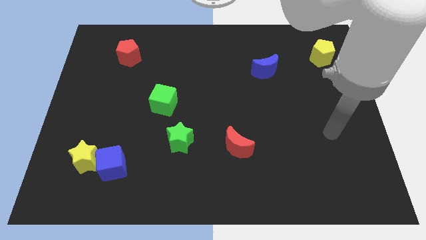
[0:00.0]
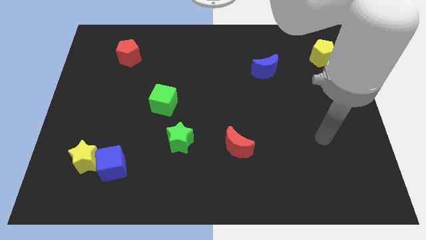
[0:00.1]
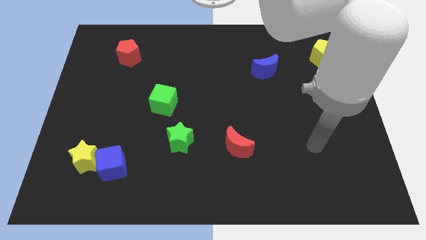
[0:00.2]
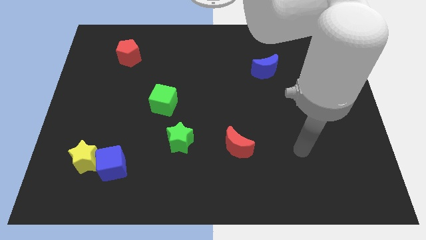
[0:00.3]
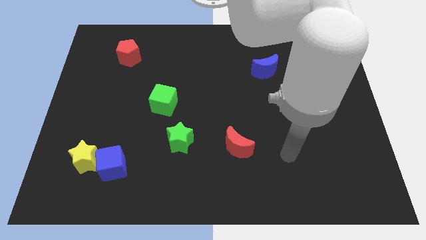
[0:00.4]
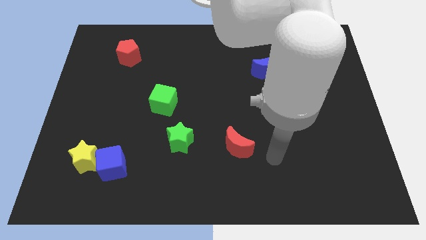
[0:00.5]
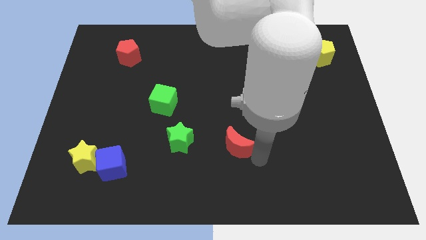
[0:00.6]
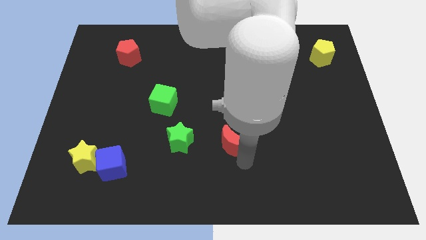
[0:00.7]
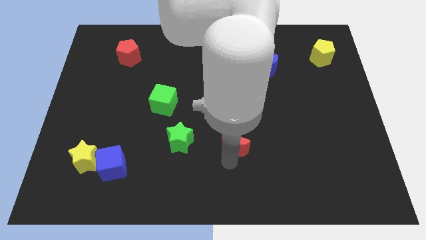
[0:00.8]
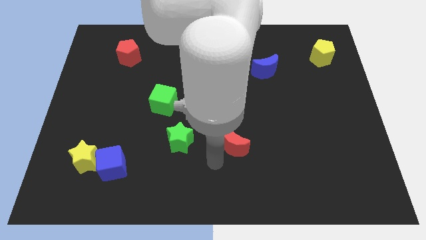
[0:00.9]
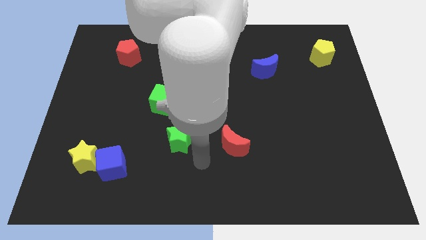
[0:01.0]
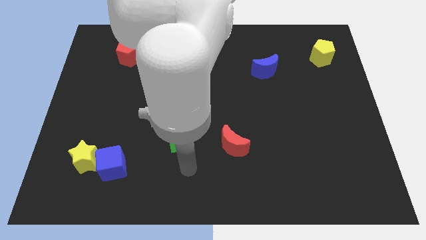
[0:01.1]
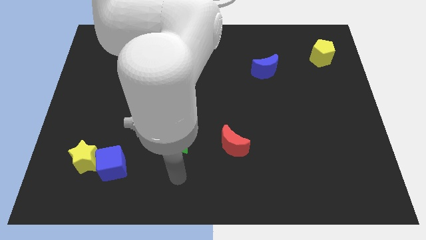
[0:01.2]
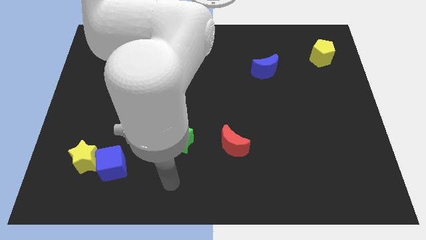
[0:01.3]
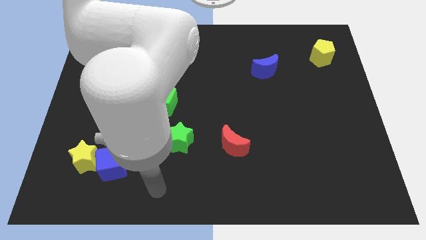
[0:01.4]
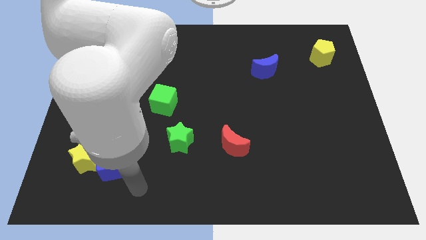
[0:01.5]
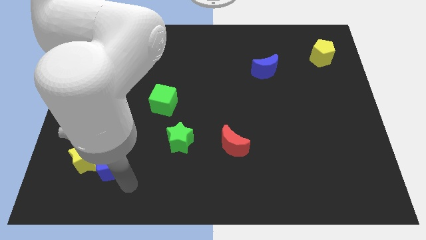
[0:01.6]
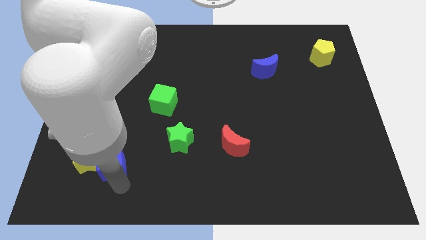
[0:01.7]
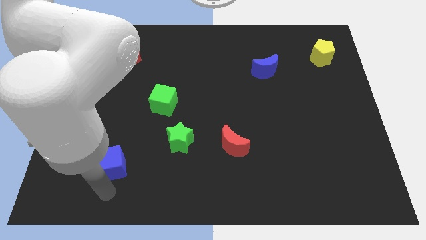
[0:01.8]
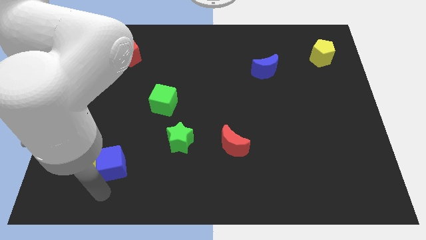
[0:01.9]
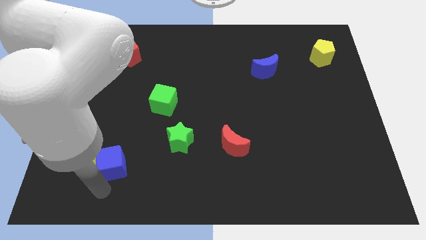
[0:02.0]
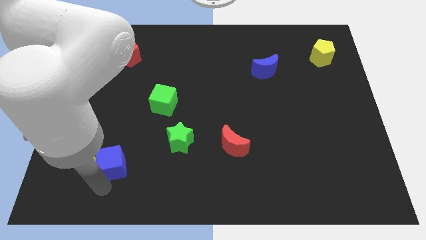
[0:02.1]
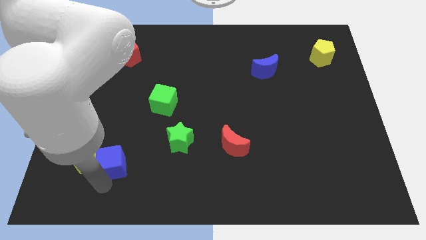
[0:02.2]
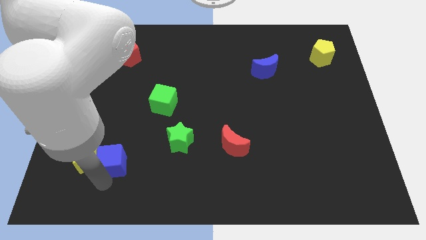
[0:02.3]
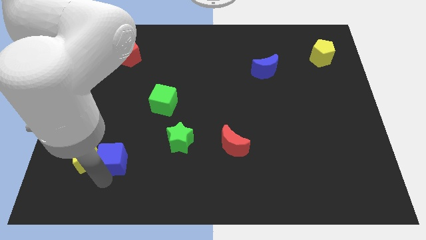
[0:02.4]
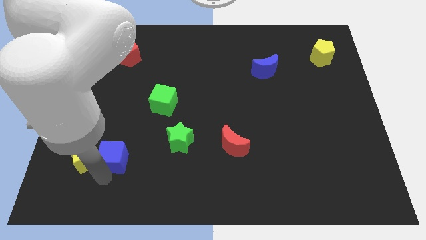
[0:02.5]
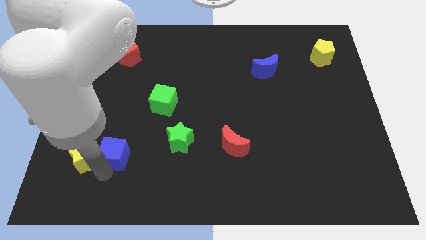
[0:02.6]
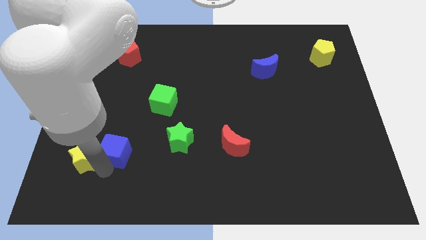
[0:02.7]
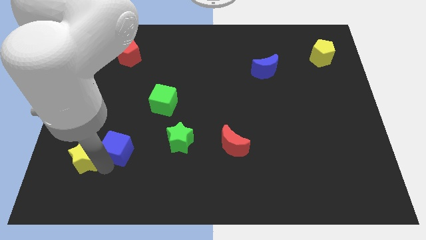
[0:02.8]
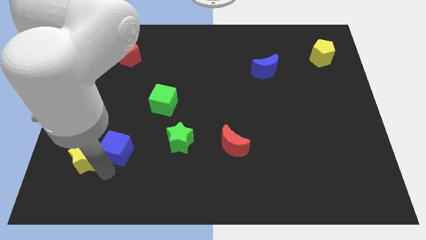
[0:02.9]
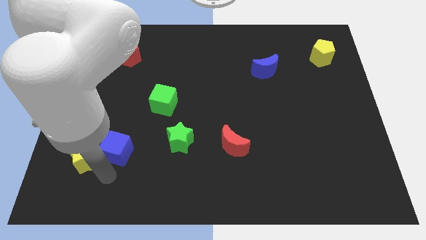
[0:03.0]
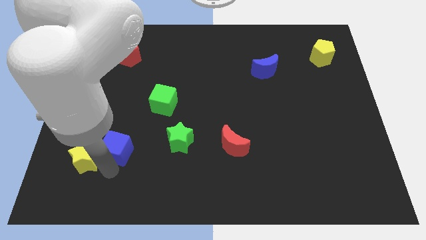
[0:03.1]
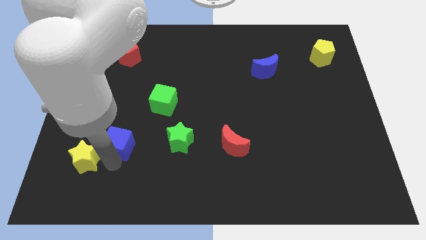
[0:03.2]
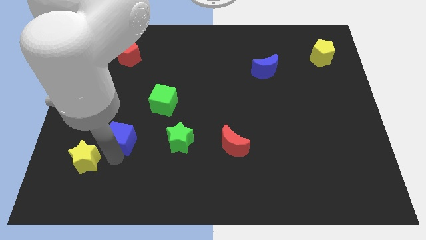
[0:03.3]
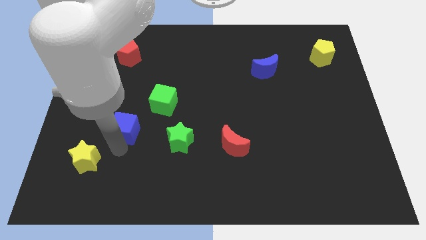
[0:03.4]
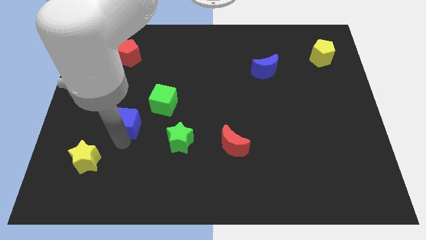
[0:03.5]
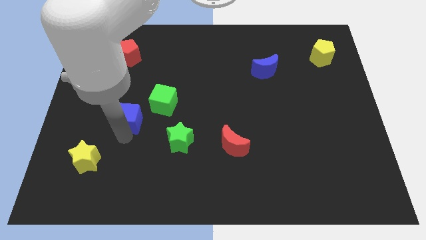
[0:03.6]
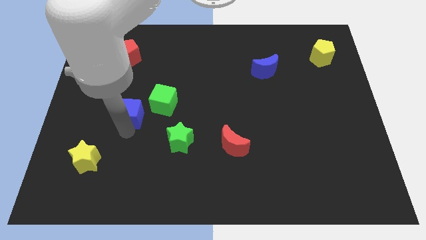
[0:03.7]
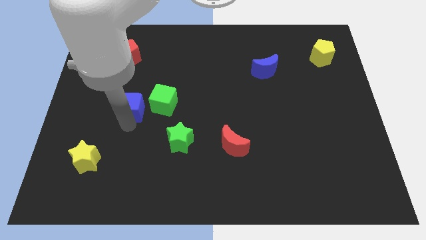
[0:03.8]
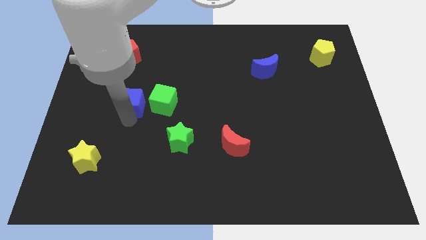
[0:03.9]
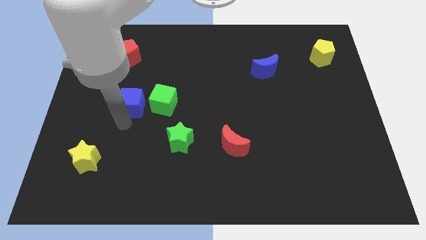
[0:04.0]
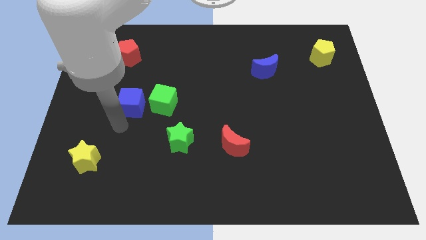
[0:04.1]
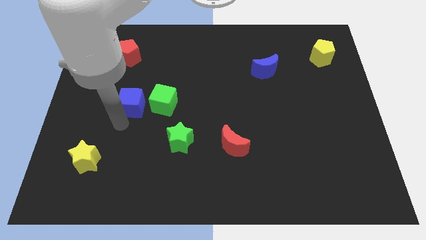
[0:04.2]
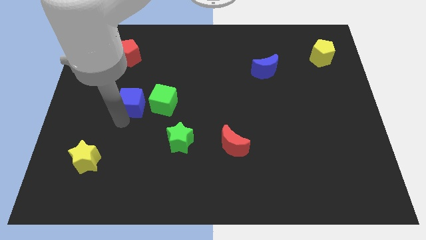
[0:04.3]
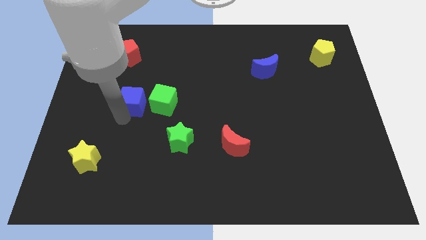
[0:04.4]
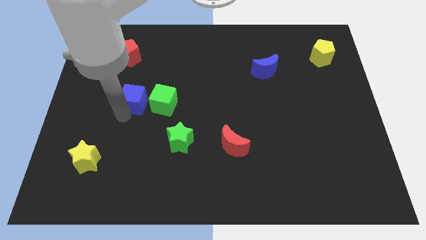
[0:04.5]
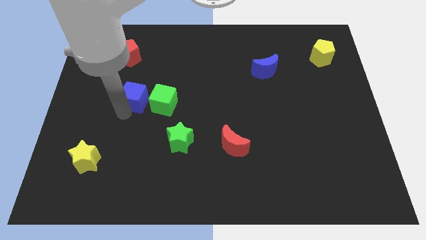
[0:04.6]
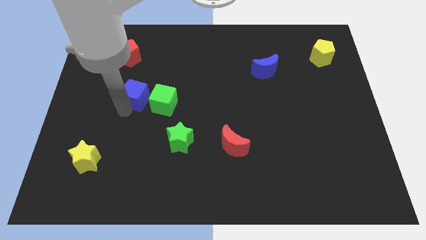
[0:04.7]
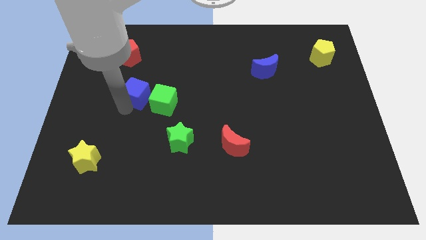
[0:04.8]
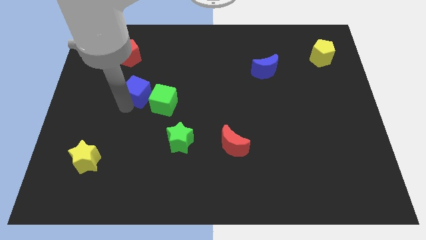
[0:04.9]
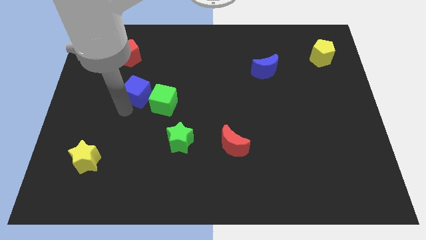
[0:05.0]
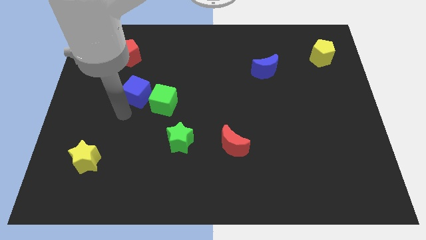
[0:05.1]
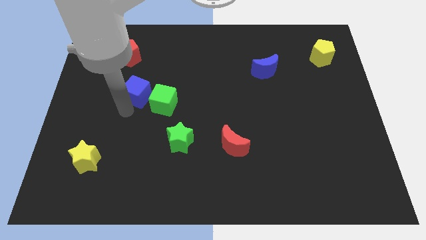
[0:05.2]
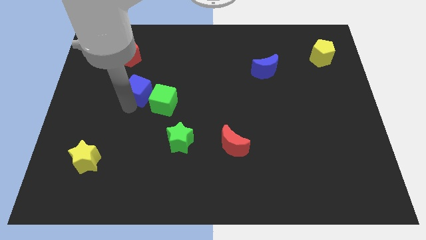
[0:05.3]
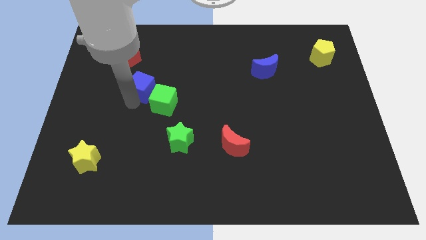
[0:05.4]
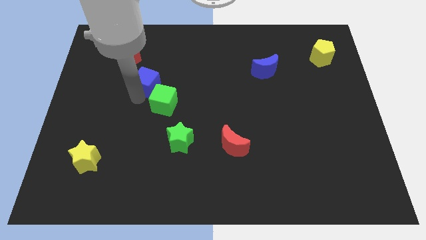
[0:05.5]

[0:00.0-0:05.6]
move the blue cube to the bottom right of the red pentagon

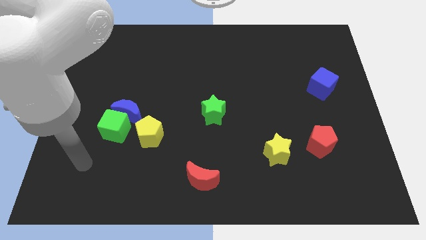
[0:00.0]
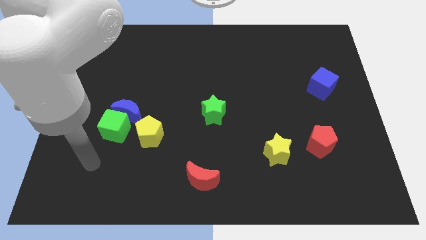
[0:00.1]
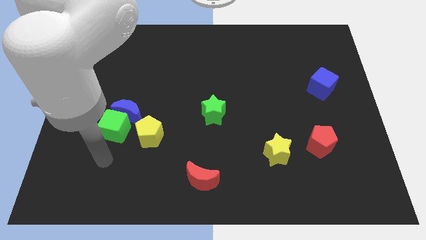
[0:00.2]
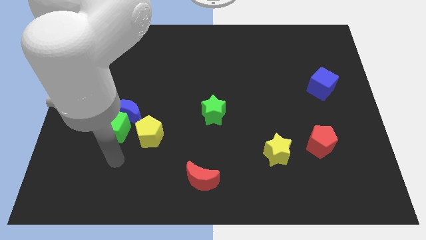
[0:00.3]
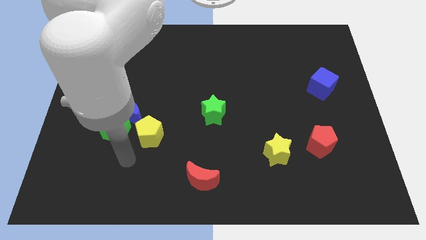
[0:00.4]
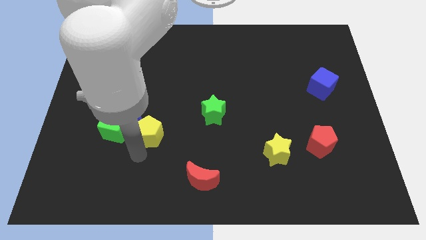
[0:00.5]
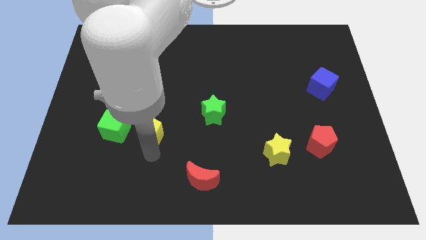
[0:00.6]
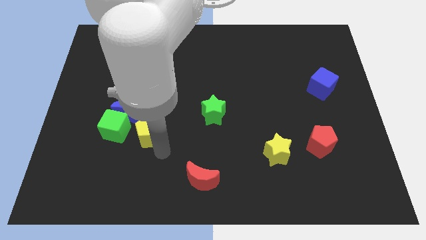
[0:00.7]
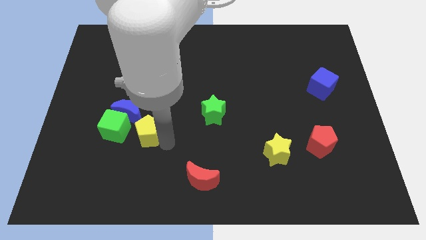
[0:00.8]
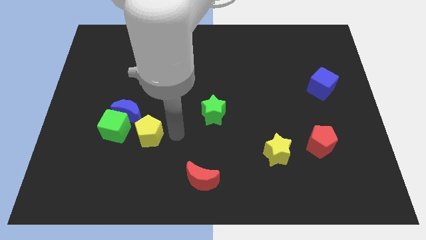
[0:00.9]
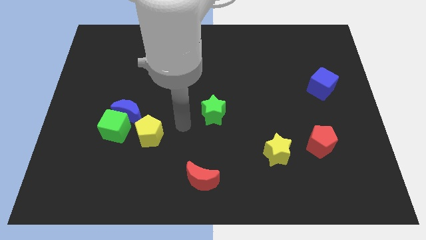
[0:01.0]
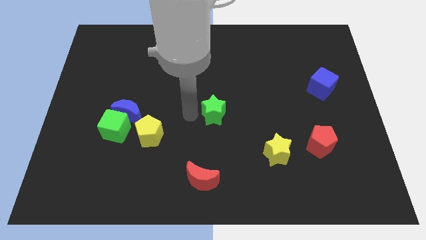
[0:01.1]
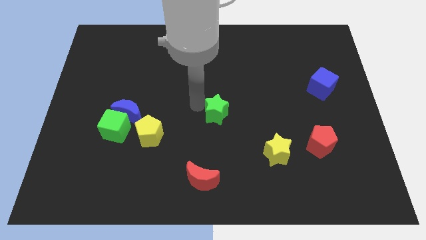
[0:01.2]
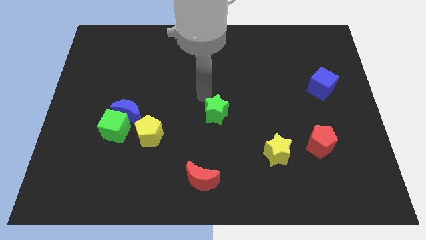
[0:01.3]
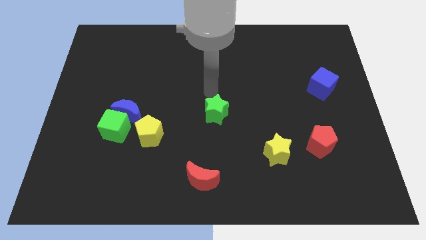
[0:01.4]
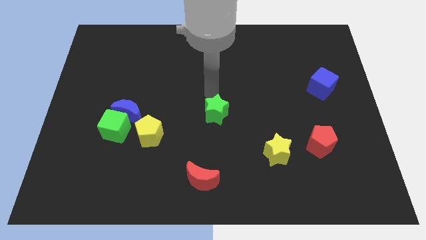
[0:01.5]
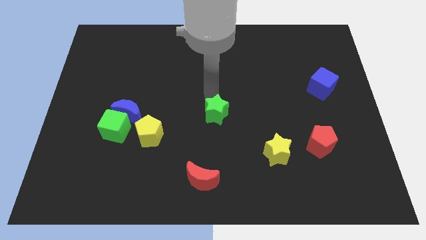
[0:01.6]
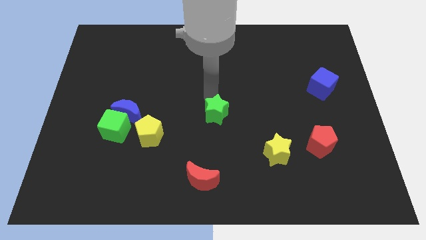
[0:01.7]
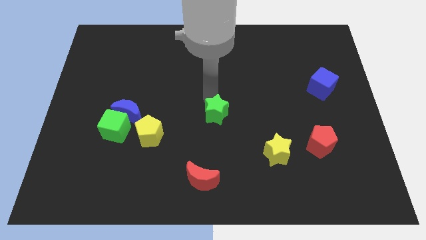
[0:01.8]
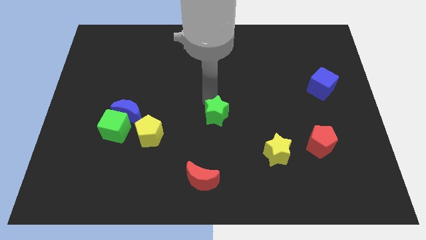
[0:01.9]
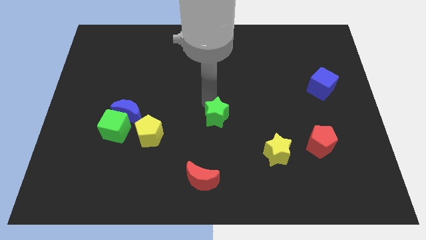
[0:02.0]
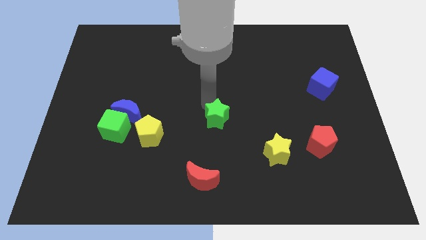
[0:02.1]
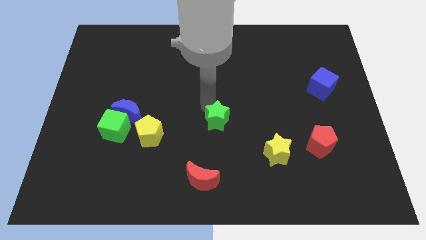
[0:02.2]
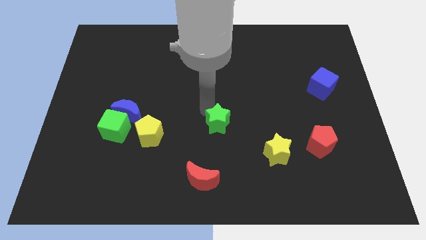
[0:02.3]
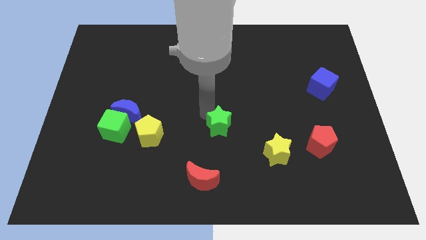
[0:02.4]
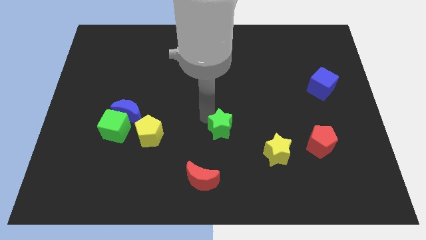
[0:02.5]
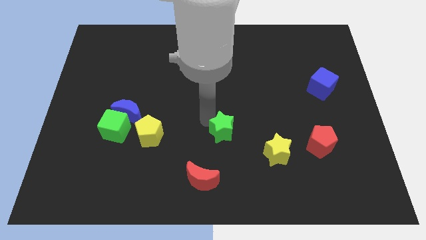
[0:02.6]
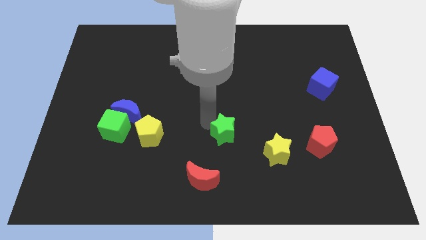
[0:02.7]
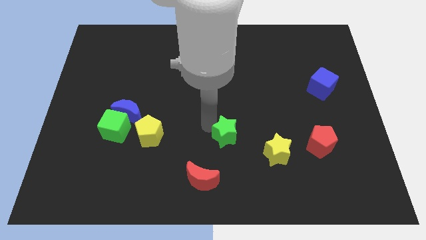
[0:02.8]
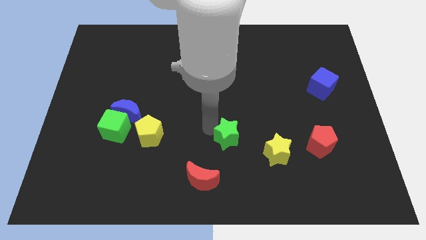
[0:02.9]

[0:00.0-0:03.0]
put the green star to the top right side of the red moon
